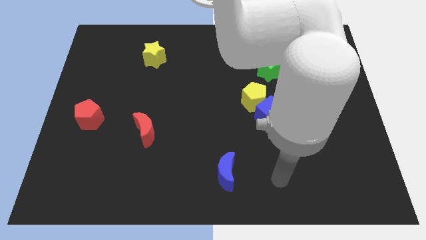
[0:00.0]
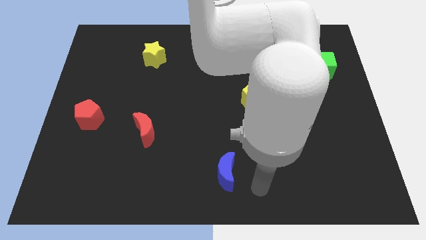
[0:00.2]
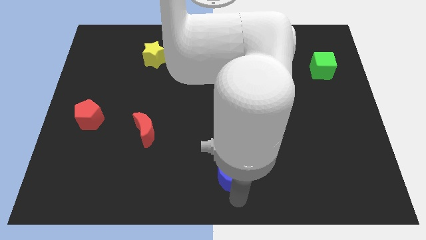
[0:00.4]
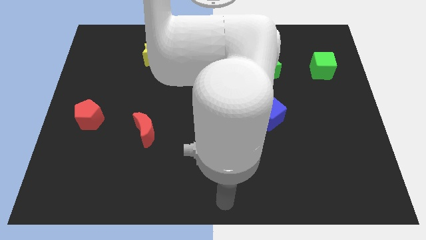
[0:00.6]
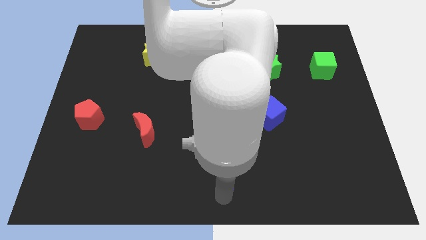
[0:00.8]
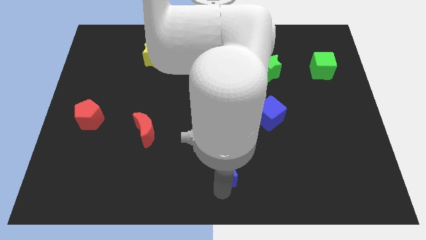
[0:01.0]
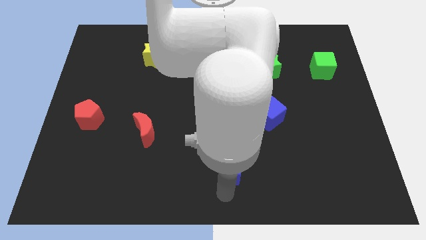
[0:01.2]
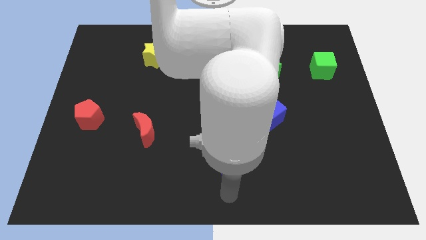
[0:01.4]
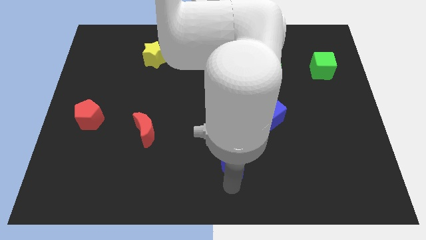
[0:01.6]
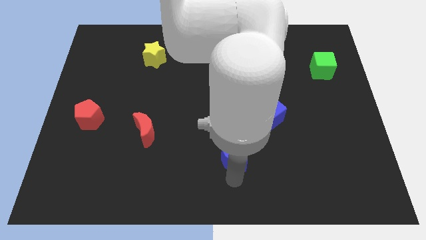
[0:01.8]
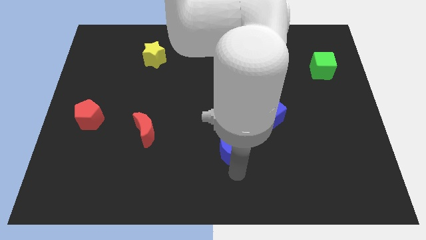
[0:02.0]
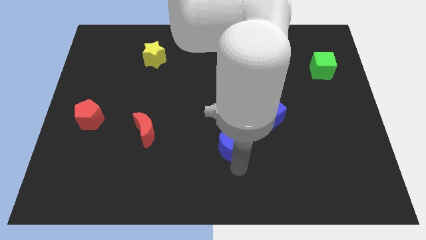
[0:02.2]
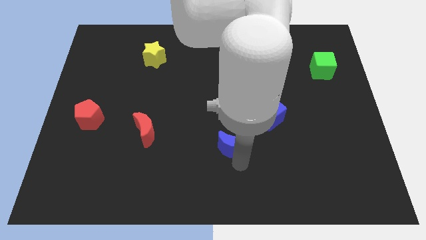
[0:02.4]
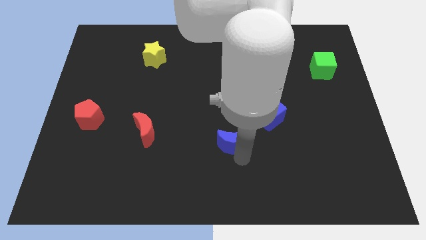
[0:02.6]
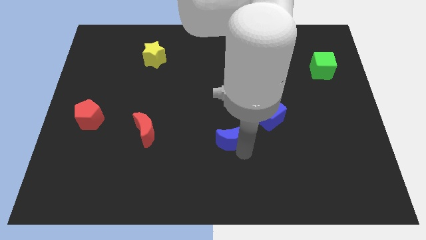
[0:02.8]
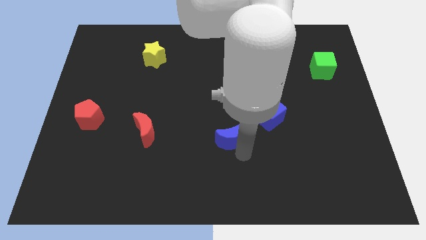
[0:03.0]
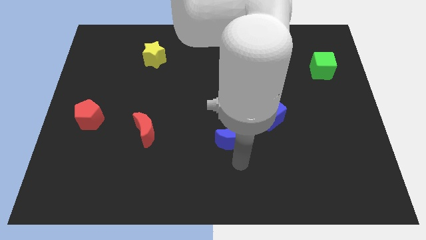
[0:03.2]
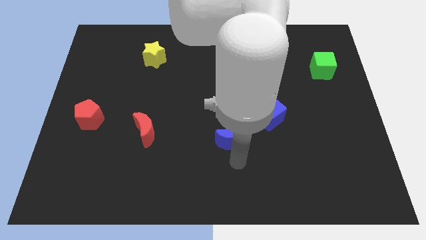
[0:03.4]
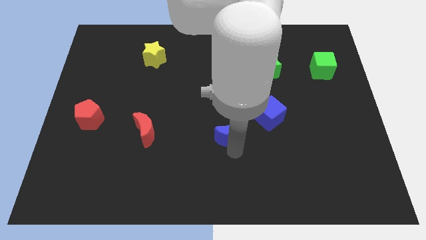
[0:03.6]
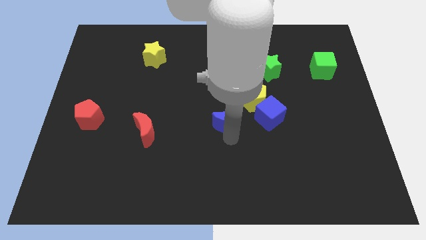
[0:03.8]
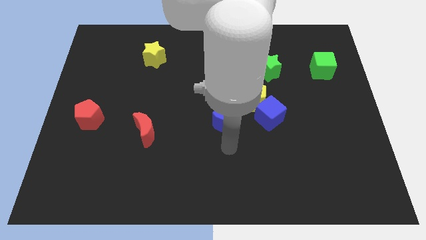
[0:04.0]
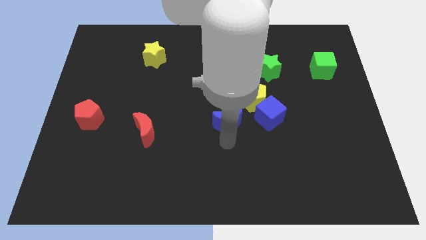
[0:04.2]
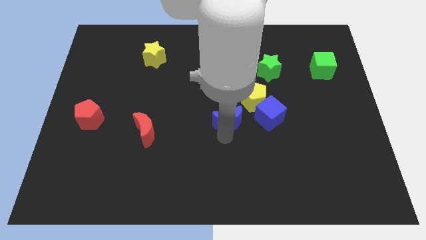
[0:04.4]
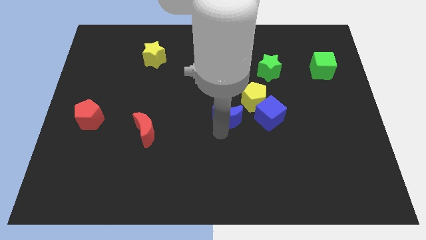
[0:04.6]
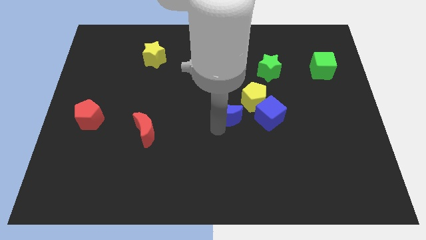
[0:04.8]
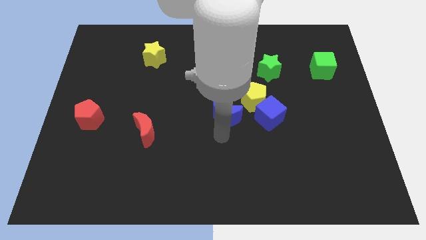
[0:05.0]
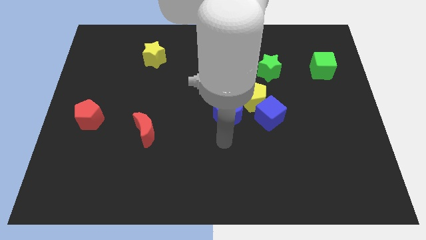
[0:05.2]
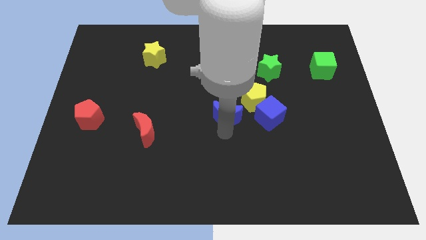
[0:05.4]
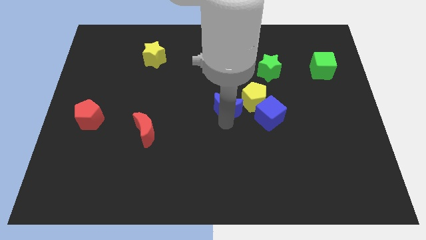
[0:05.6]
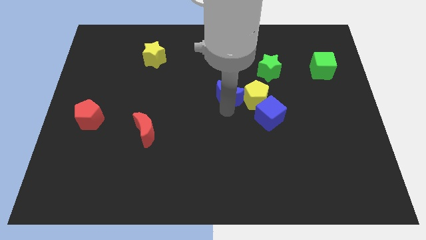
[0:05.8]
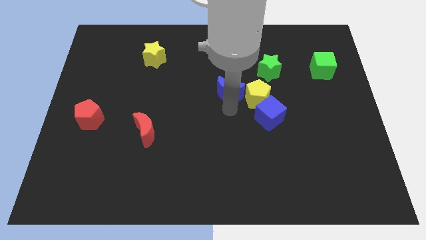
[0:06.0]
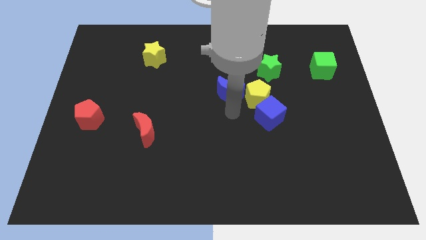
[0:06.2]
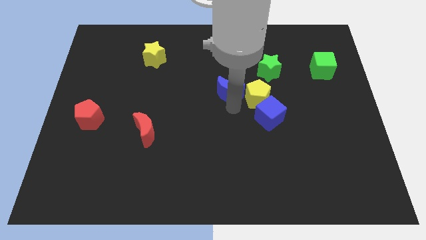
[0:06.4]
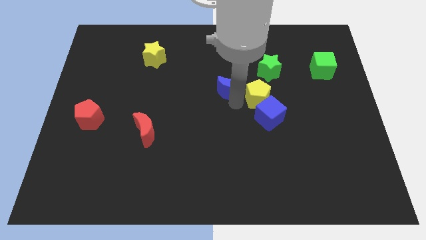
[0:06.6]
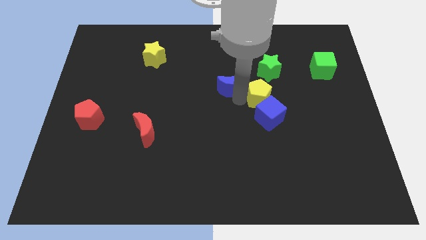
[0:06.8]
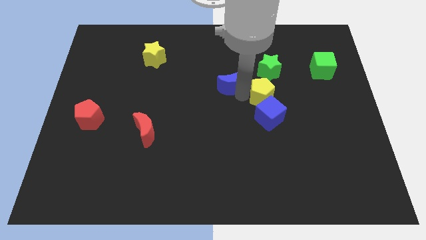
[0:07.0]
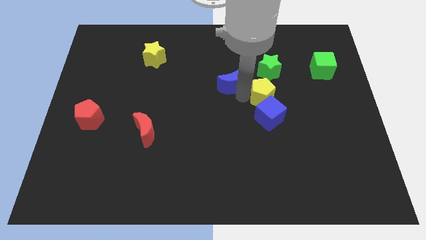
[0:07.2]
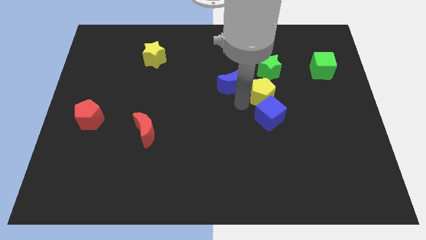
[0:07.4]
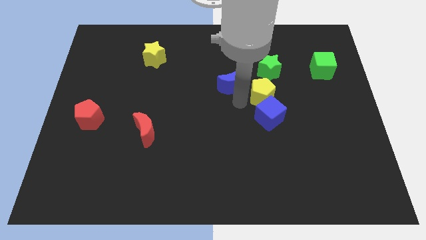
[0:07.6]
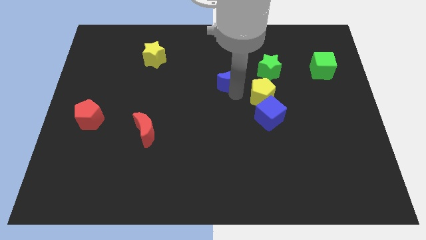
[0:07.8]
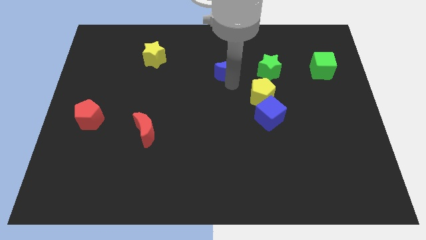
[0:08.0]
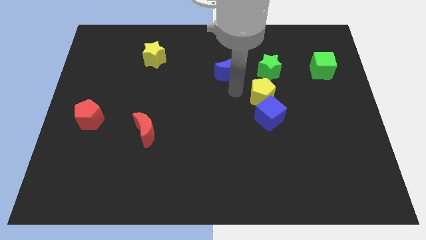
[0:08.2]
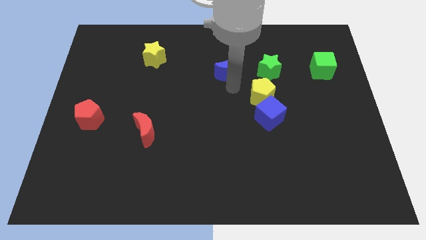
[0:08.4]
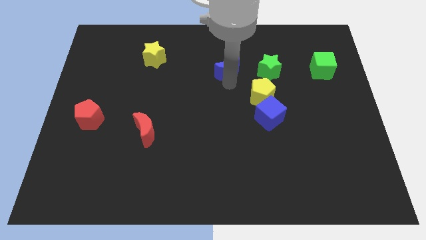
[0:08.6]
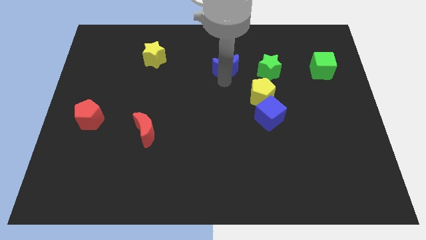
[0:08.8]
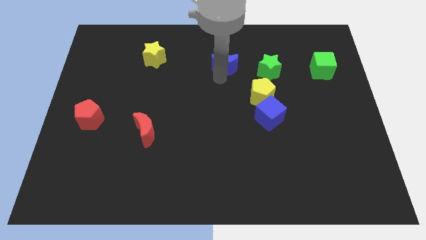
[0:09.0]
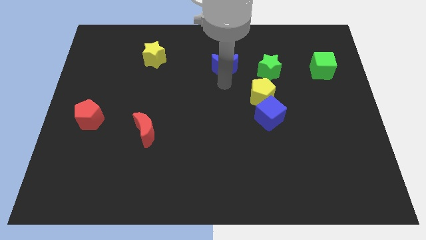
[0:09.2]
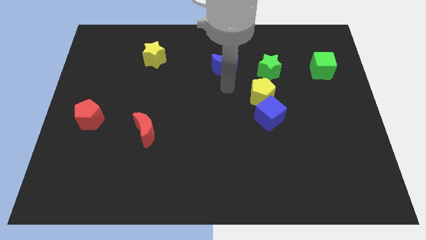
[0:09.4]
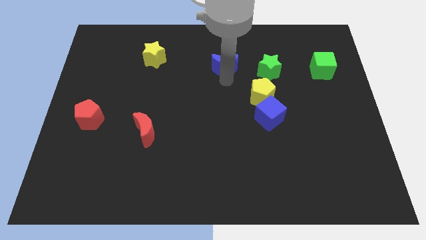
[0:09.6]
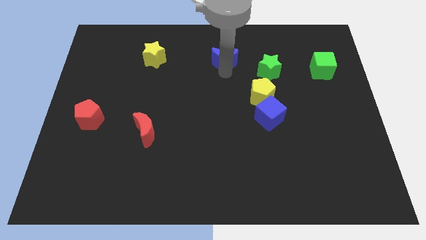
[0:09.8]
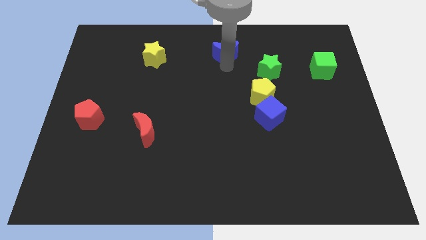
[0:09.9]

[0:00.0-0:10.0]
push the blue moon to the top side
